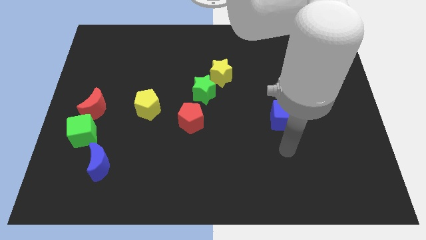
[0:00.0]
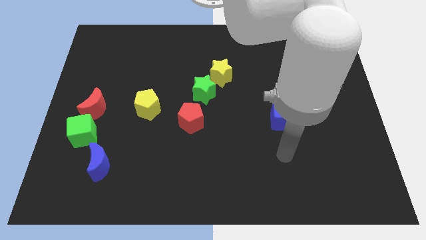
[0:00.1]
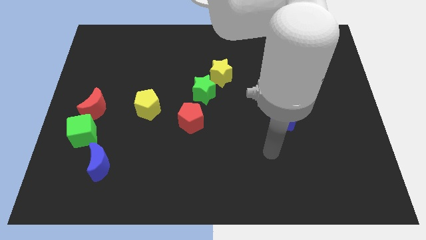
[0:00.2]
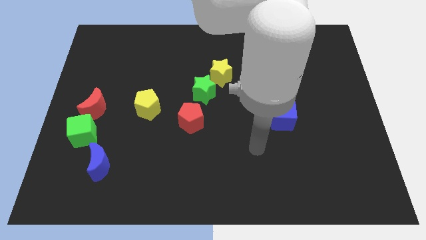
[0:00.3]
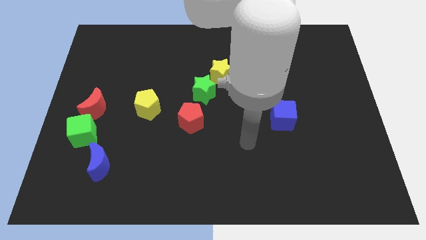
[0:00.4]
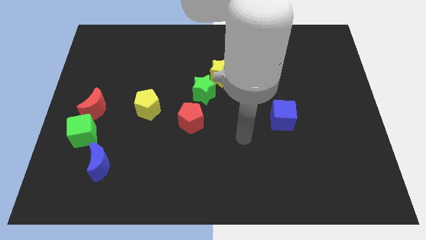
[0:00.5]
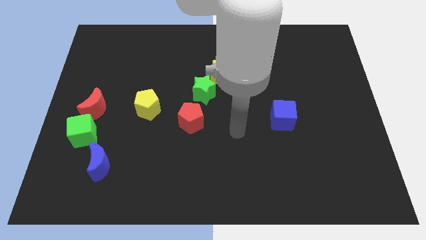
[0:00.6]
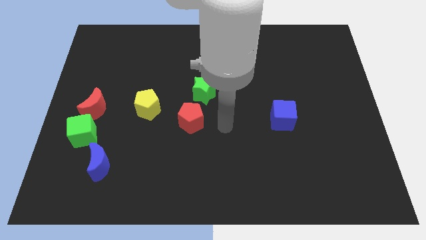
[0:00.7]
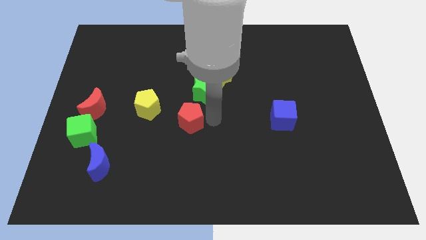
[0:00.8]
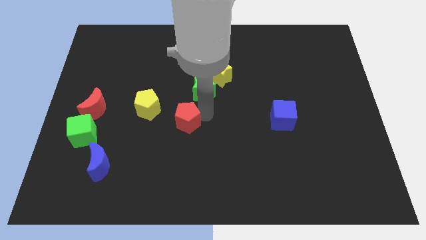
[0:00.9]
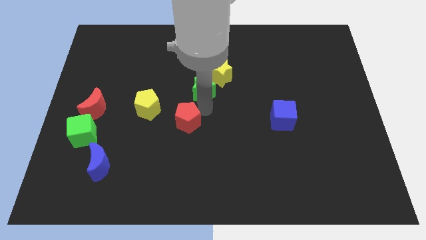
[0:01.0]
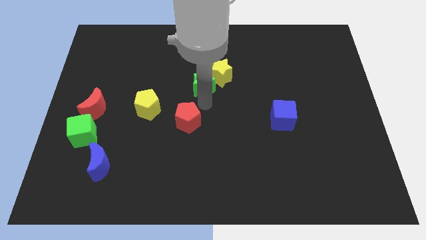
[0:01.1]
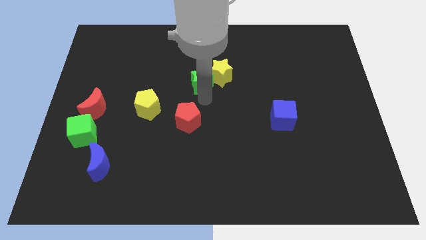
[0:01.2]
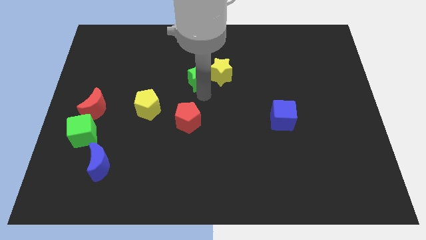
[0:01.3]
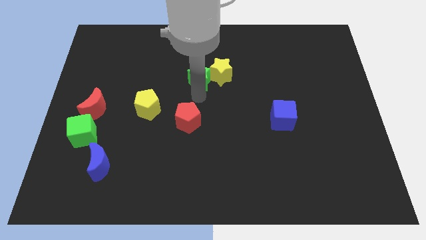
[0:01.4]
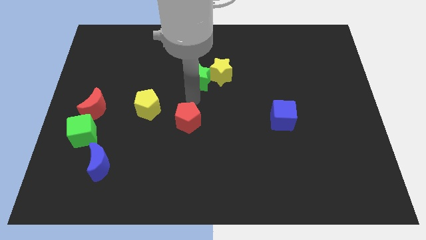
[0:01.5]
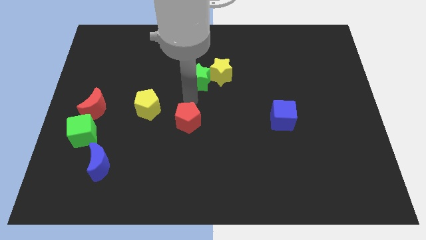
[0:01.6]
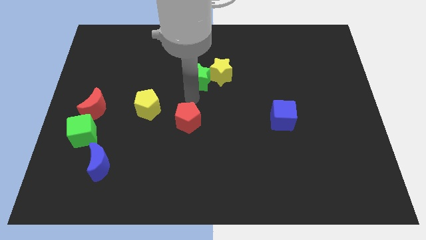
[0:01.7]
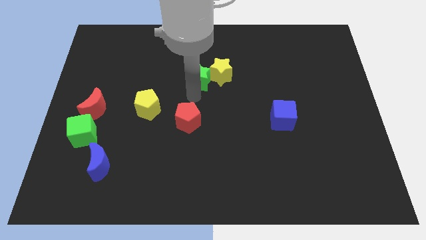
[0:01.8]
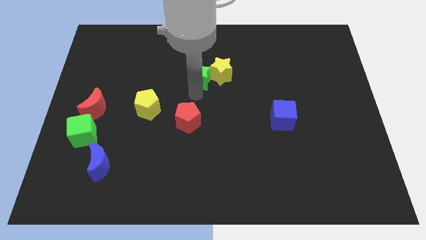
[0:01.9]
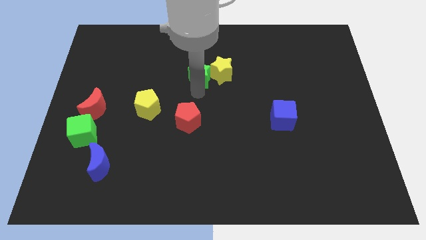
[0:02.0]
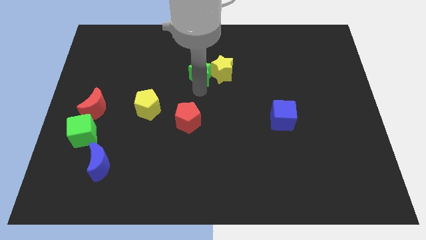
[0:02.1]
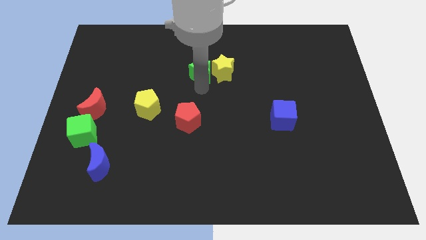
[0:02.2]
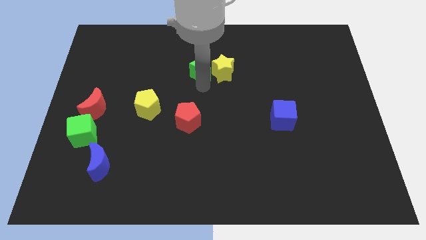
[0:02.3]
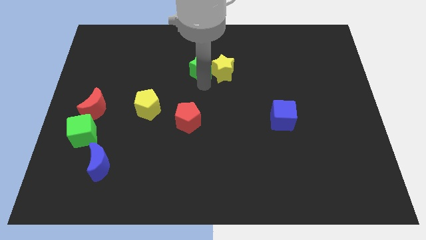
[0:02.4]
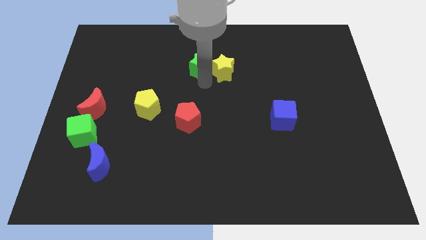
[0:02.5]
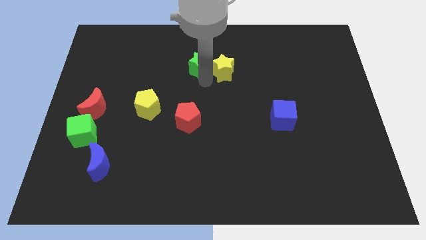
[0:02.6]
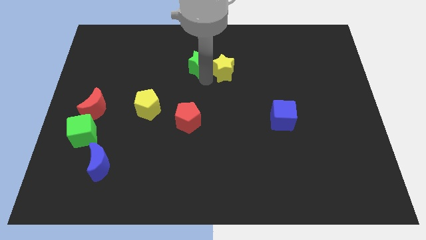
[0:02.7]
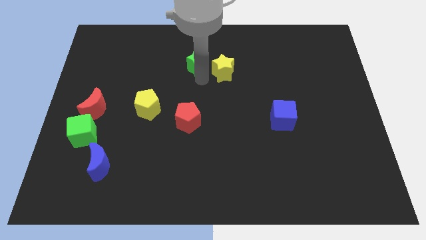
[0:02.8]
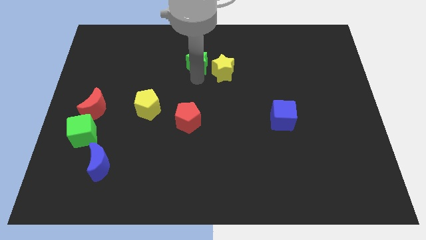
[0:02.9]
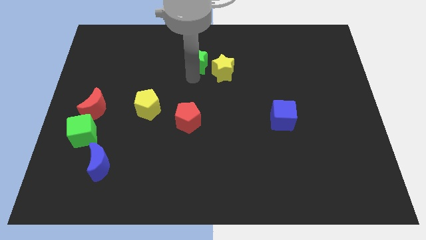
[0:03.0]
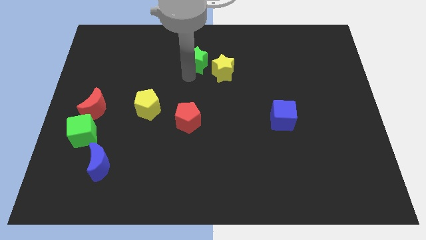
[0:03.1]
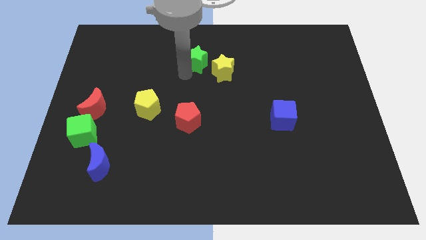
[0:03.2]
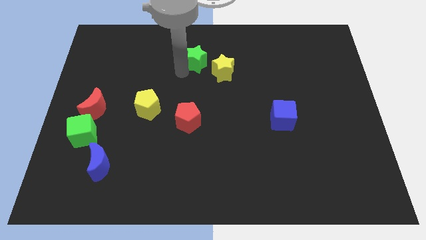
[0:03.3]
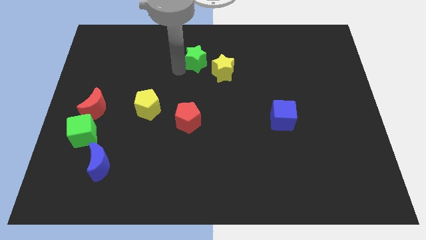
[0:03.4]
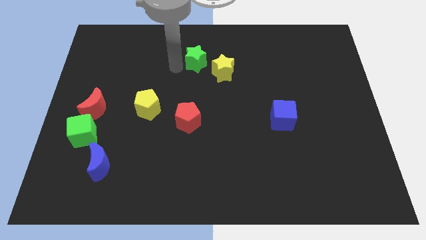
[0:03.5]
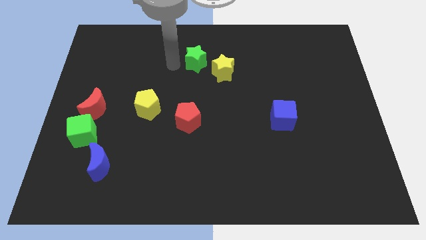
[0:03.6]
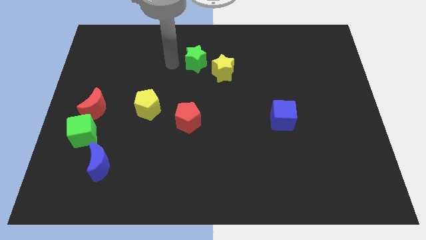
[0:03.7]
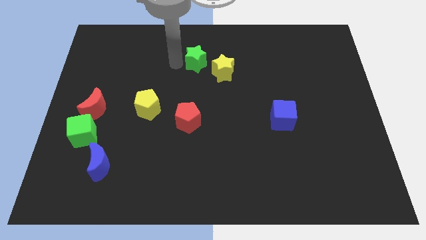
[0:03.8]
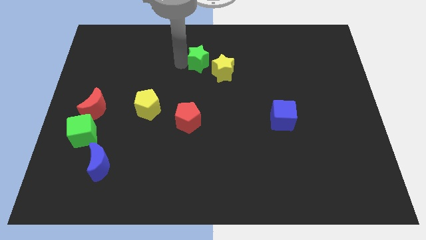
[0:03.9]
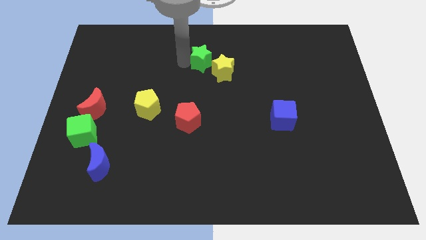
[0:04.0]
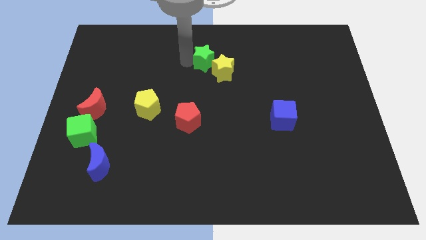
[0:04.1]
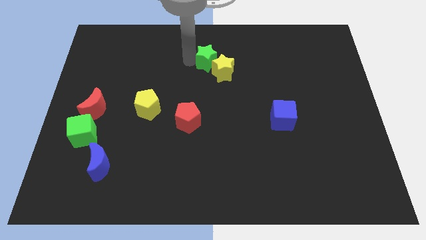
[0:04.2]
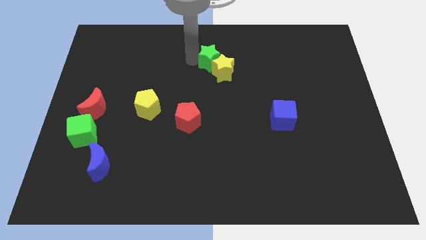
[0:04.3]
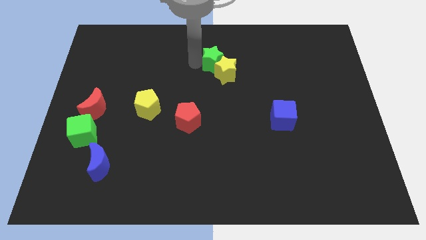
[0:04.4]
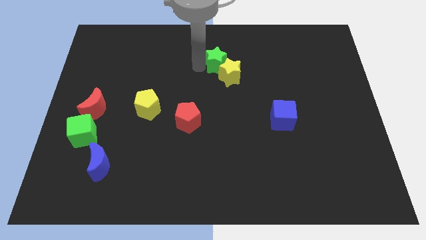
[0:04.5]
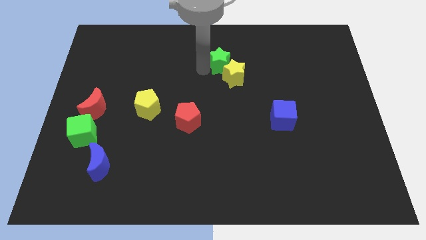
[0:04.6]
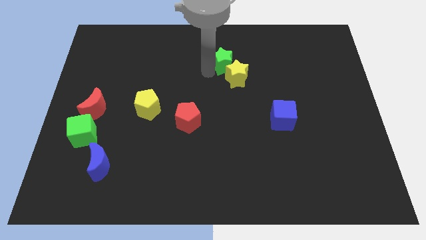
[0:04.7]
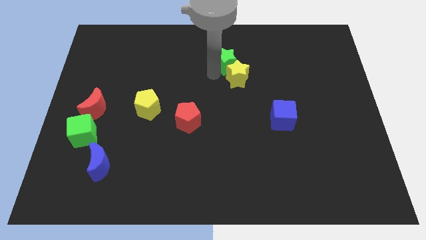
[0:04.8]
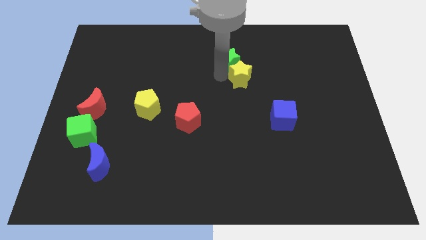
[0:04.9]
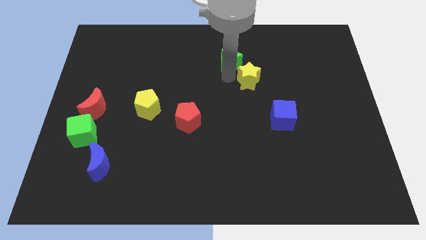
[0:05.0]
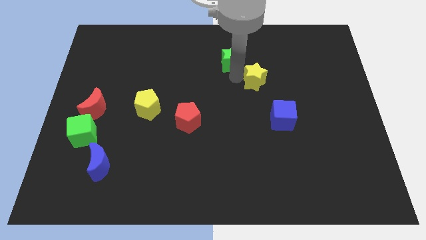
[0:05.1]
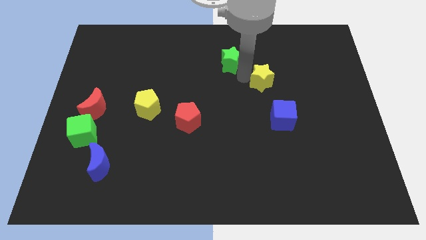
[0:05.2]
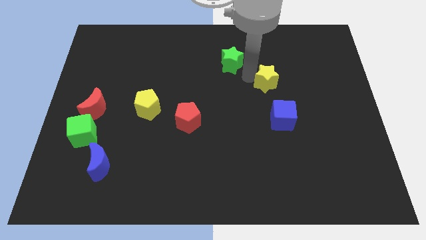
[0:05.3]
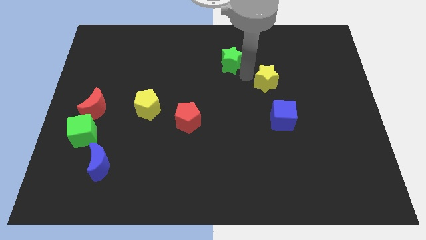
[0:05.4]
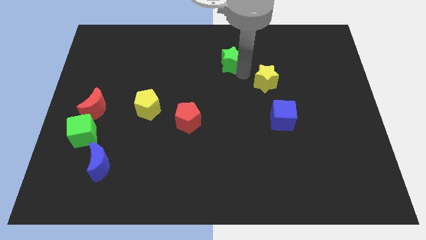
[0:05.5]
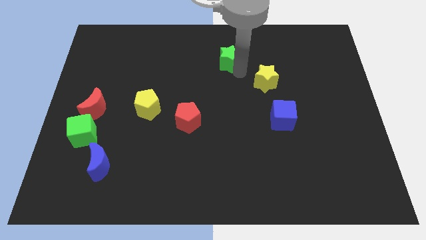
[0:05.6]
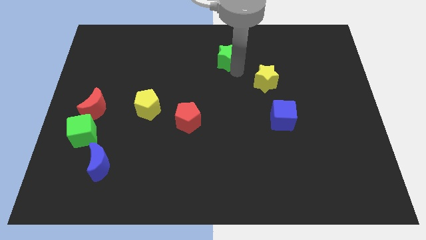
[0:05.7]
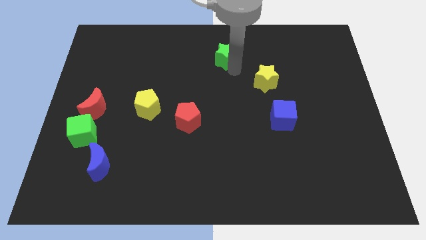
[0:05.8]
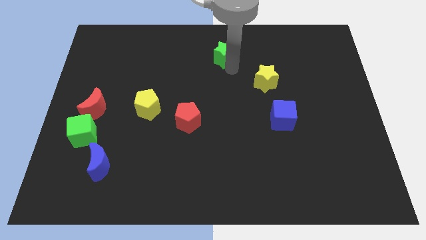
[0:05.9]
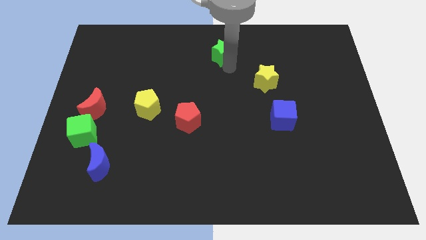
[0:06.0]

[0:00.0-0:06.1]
move the green star to the top

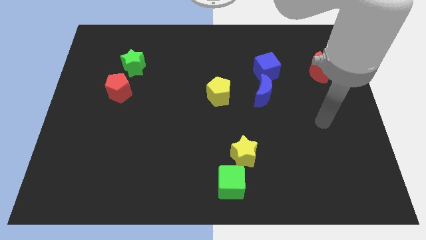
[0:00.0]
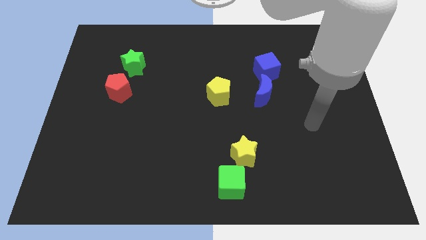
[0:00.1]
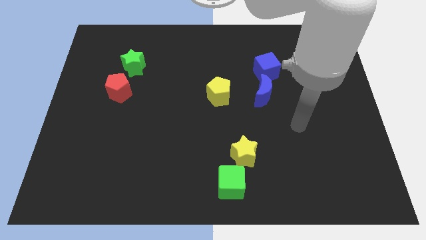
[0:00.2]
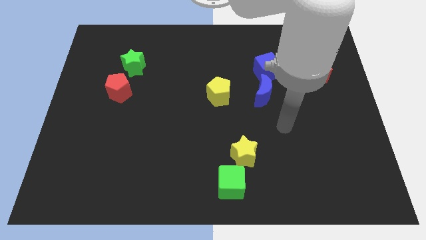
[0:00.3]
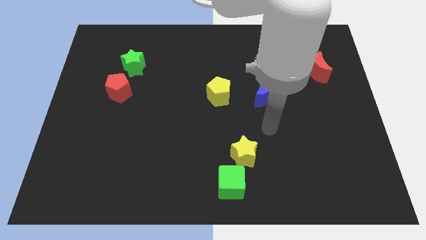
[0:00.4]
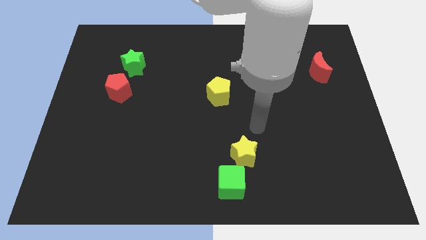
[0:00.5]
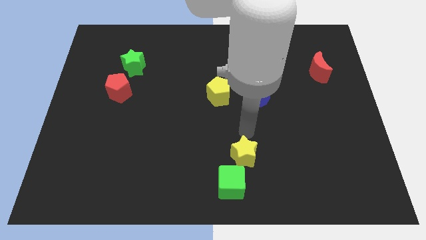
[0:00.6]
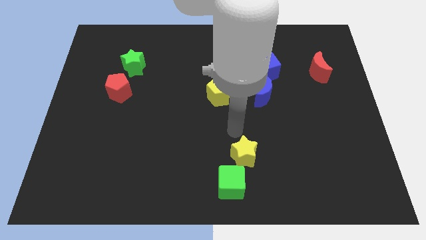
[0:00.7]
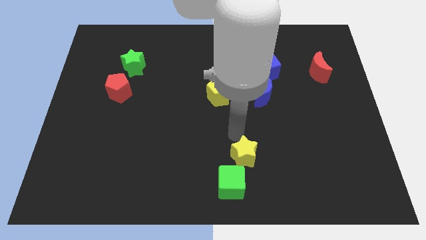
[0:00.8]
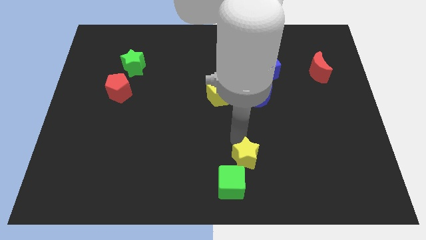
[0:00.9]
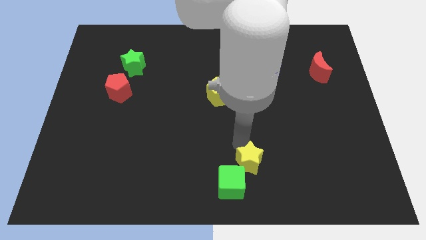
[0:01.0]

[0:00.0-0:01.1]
slide the yellow star to the bottom
